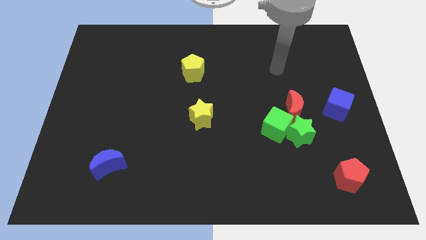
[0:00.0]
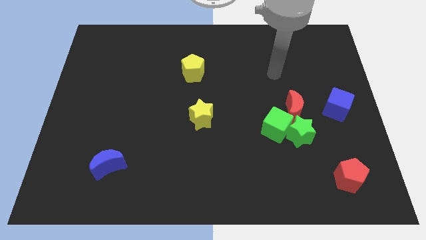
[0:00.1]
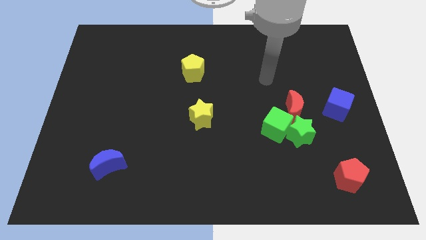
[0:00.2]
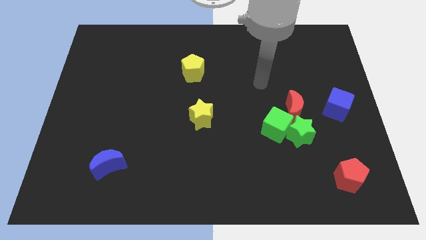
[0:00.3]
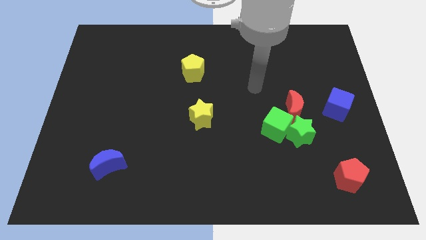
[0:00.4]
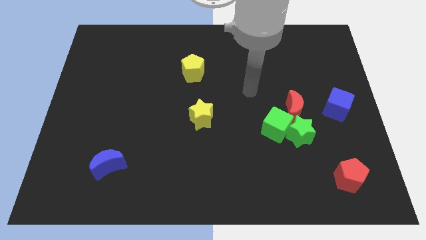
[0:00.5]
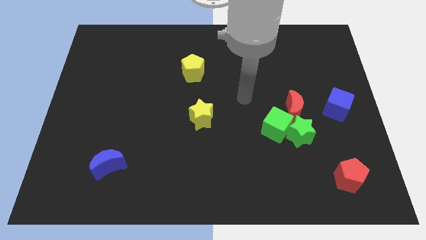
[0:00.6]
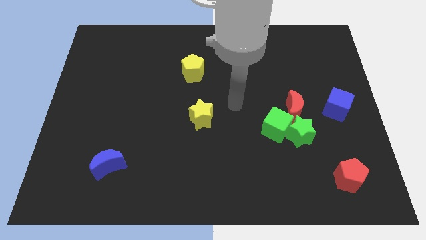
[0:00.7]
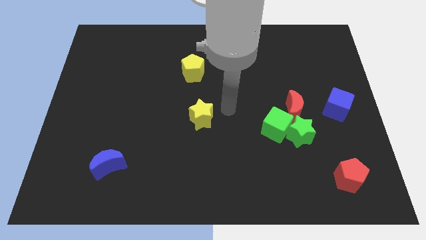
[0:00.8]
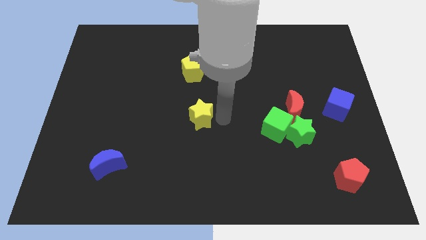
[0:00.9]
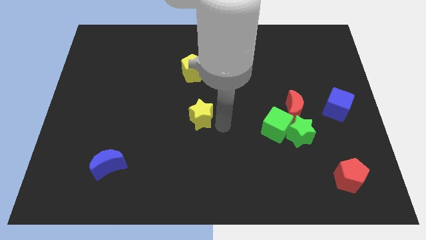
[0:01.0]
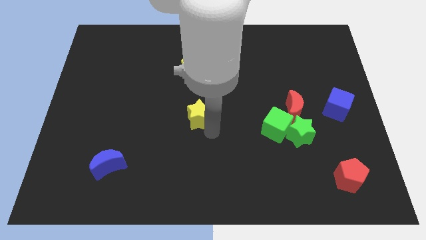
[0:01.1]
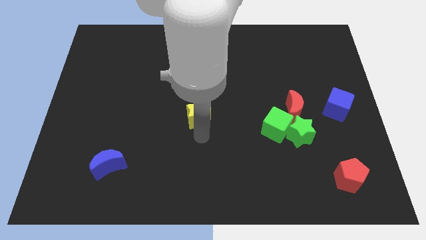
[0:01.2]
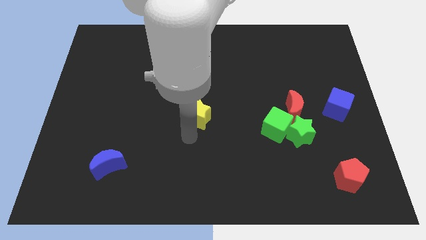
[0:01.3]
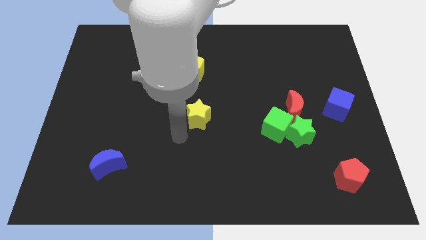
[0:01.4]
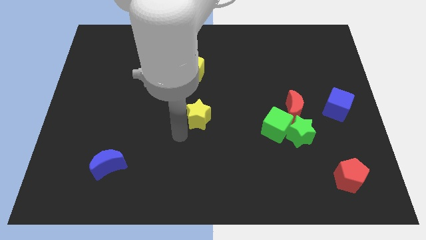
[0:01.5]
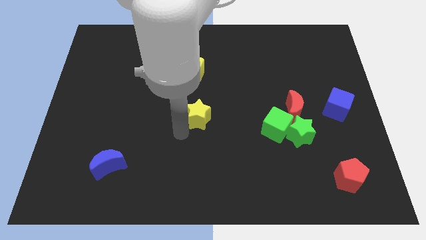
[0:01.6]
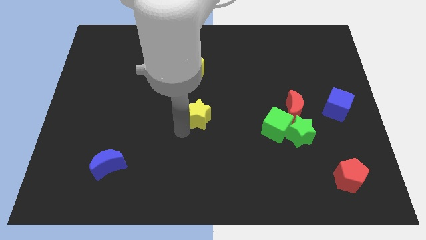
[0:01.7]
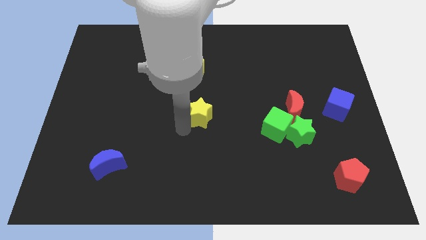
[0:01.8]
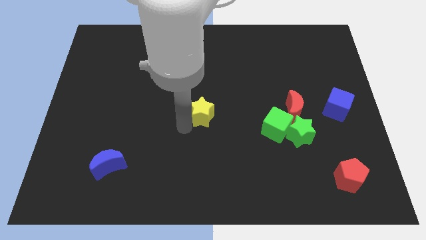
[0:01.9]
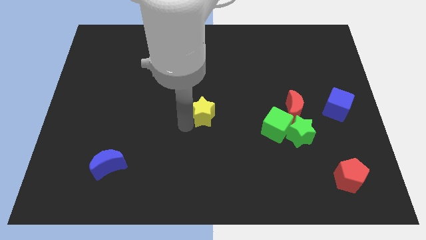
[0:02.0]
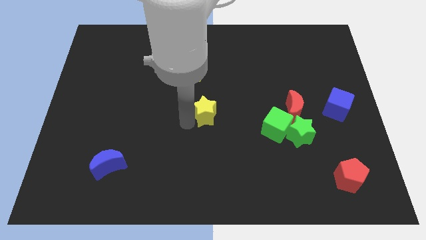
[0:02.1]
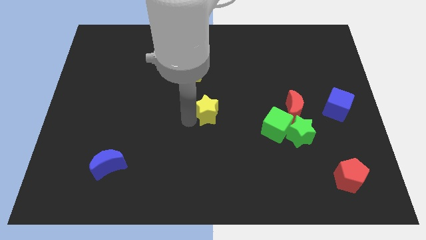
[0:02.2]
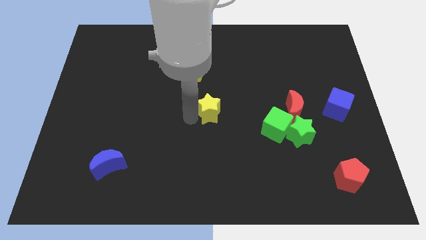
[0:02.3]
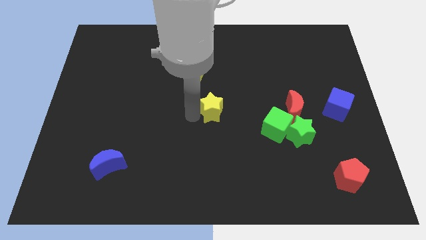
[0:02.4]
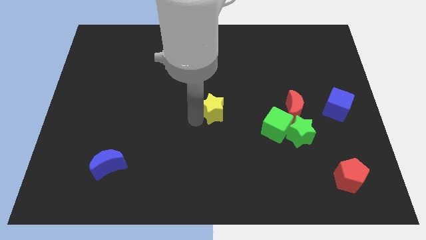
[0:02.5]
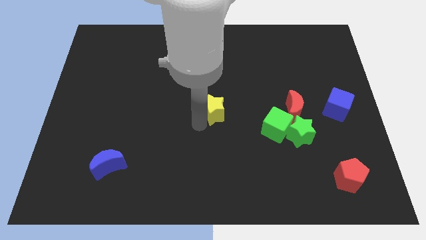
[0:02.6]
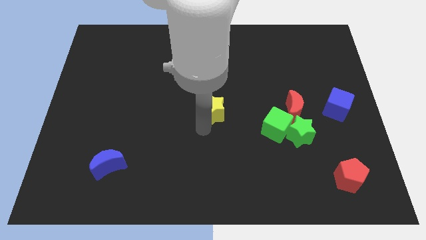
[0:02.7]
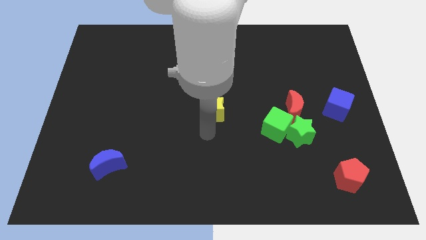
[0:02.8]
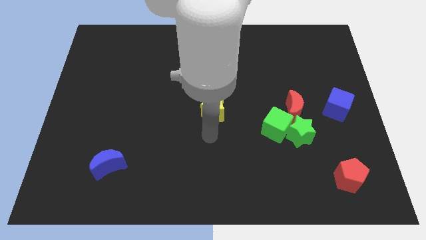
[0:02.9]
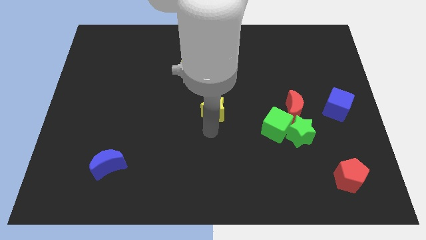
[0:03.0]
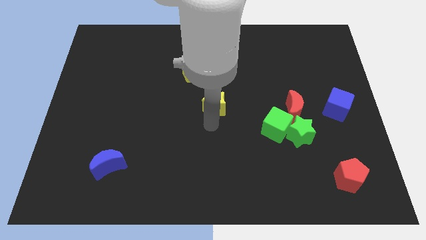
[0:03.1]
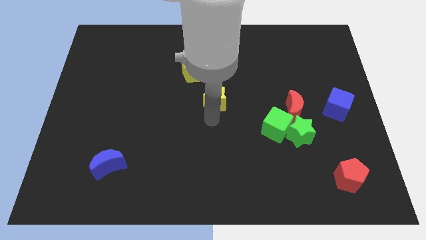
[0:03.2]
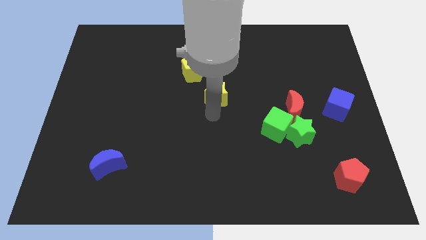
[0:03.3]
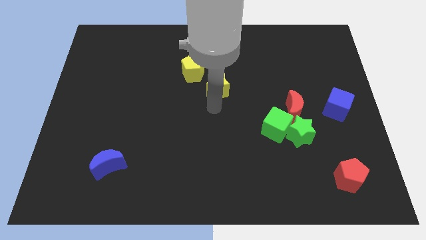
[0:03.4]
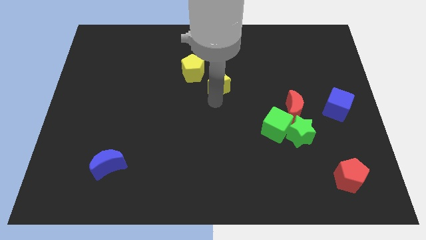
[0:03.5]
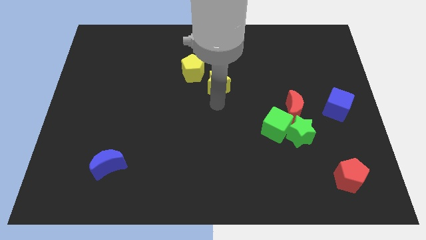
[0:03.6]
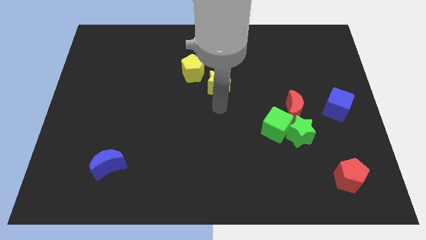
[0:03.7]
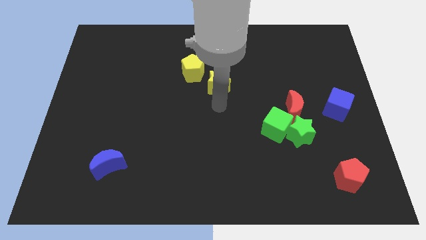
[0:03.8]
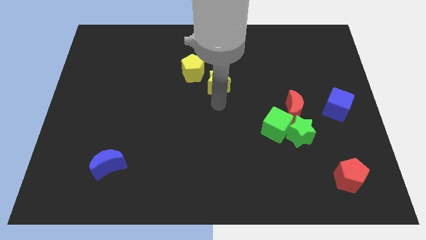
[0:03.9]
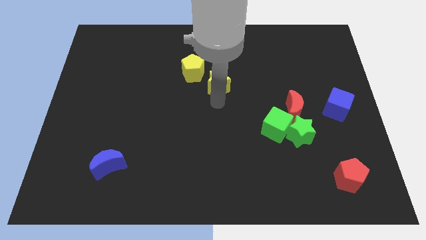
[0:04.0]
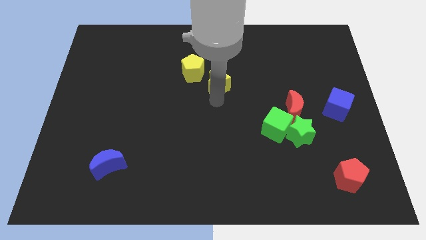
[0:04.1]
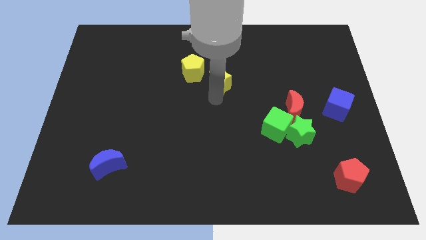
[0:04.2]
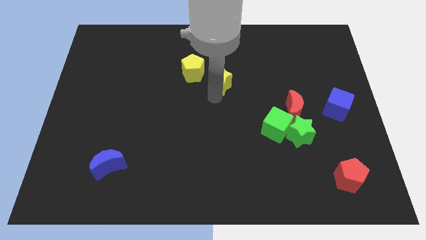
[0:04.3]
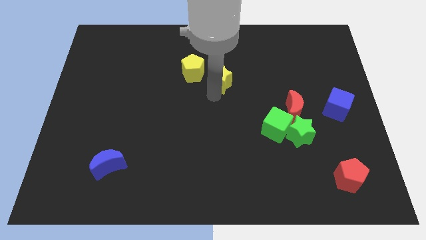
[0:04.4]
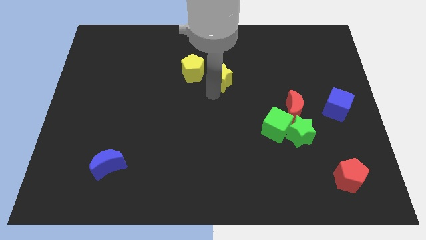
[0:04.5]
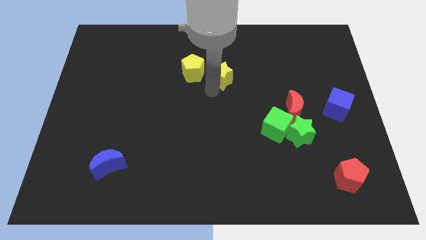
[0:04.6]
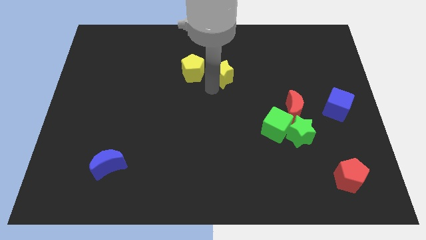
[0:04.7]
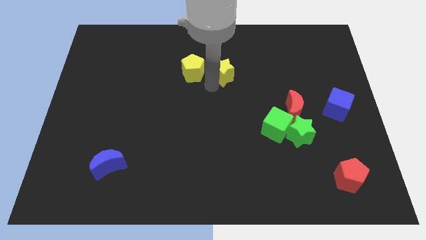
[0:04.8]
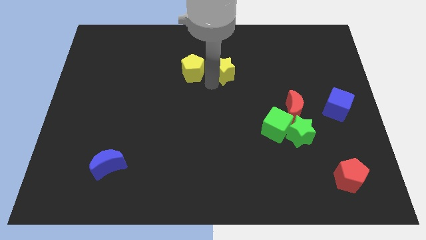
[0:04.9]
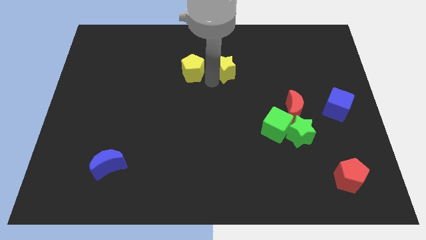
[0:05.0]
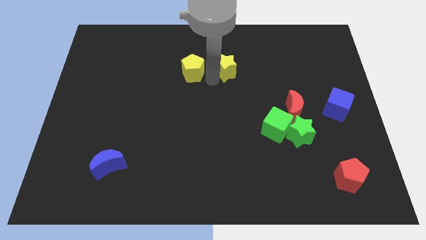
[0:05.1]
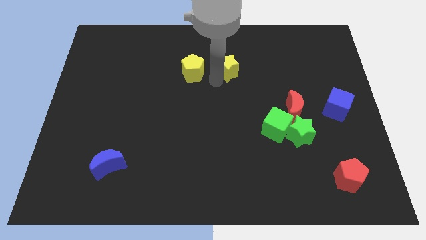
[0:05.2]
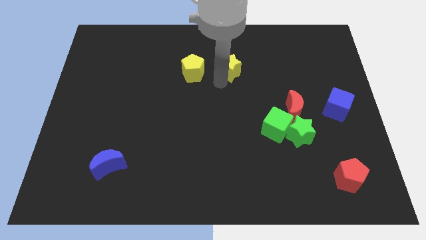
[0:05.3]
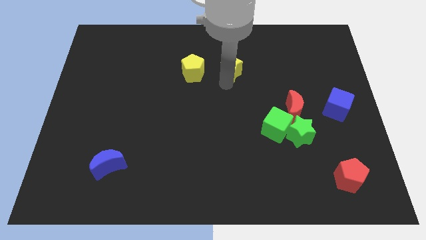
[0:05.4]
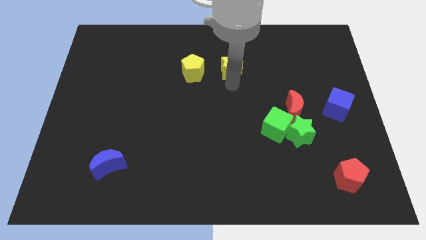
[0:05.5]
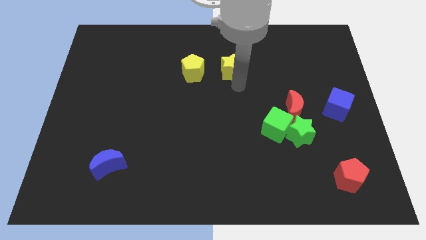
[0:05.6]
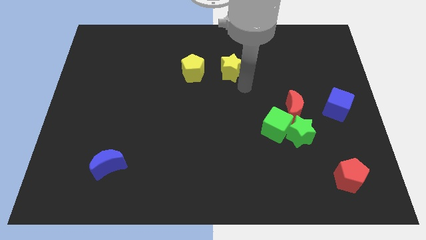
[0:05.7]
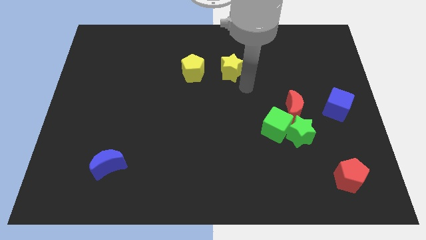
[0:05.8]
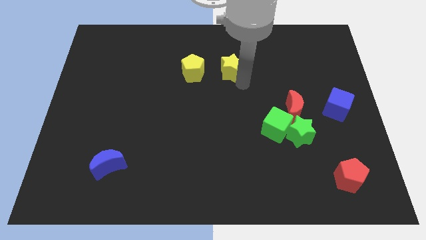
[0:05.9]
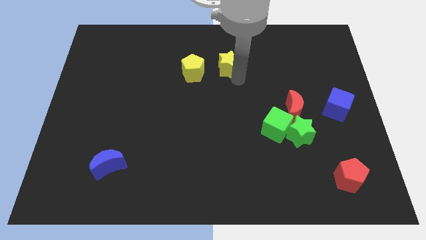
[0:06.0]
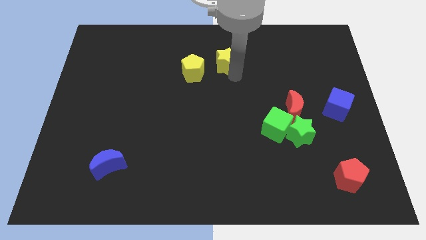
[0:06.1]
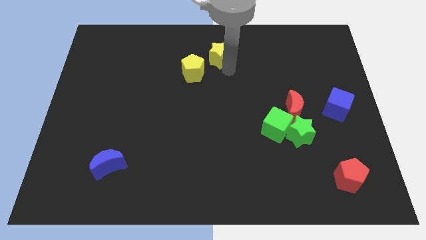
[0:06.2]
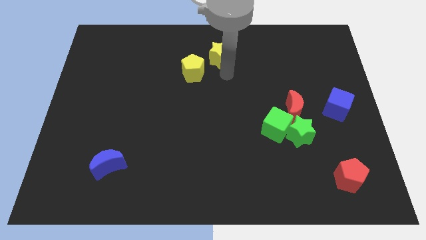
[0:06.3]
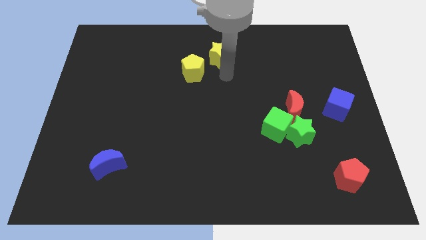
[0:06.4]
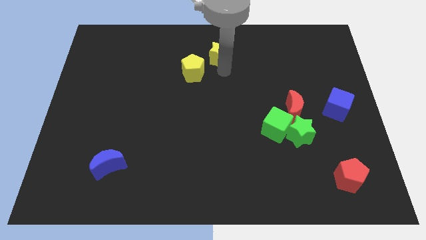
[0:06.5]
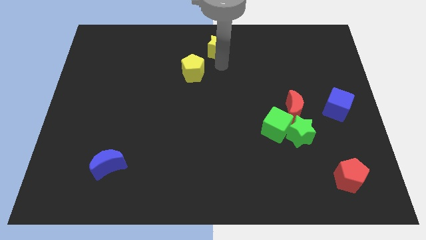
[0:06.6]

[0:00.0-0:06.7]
push the yellow star to the top side
